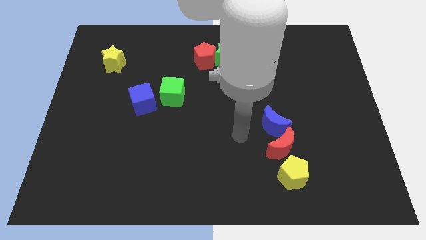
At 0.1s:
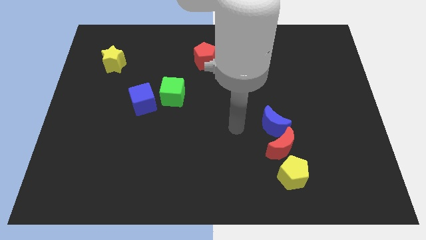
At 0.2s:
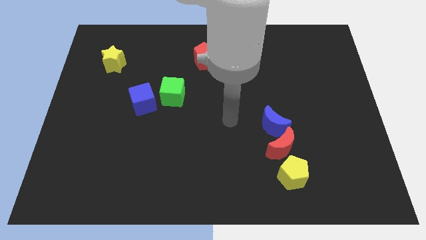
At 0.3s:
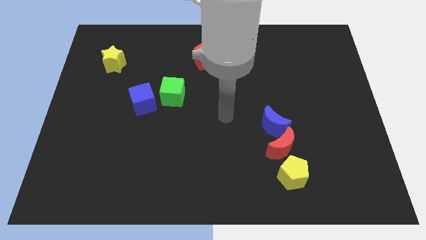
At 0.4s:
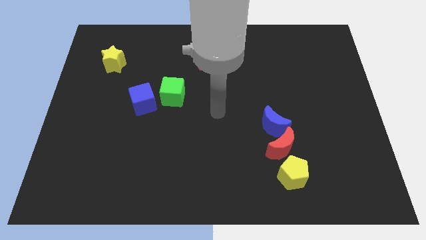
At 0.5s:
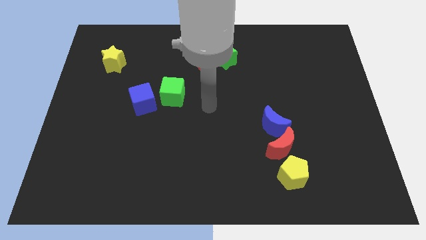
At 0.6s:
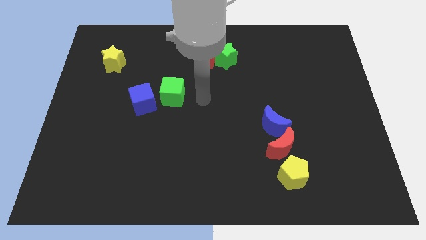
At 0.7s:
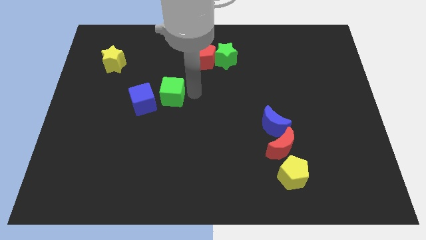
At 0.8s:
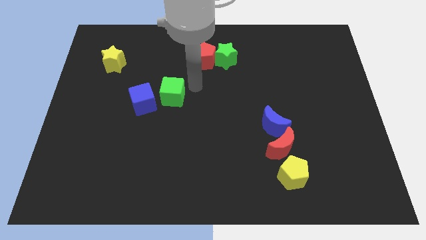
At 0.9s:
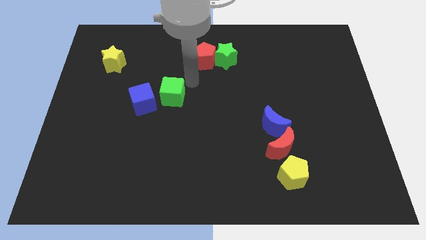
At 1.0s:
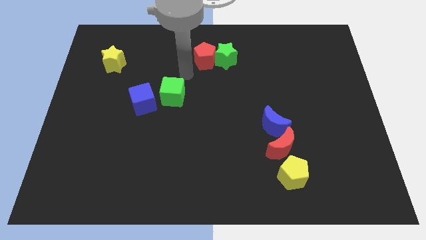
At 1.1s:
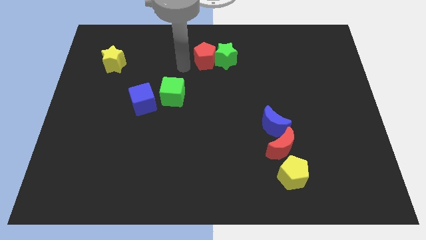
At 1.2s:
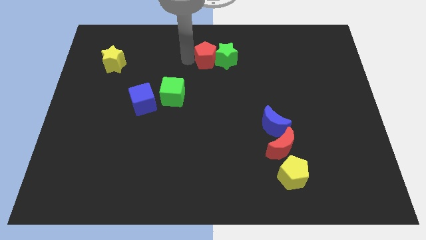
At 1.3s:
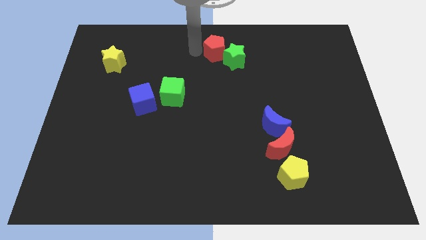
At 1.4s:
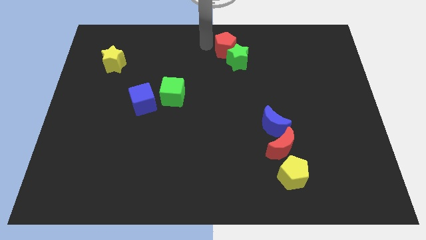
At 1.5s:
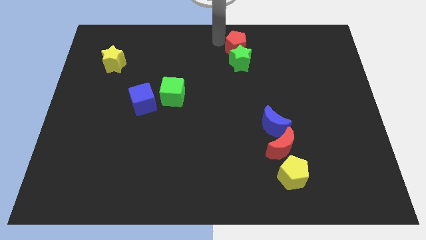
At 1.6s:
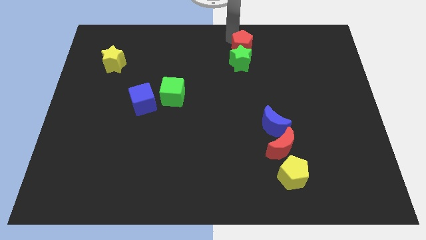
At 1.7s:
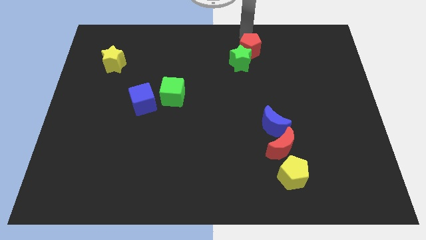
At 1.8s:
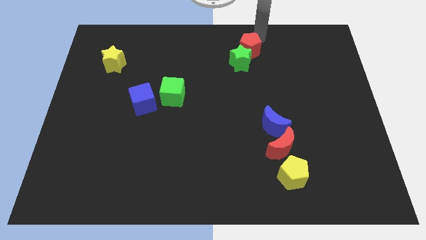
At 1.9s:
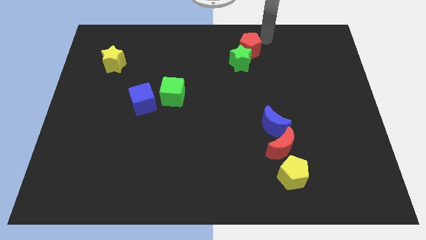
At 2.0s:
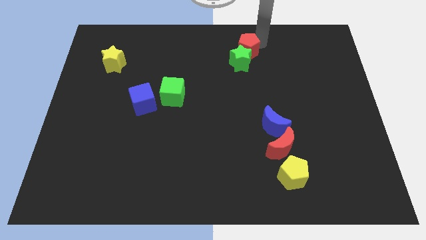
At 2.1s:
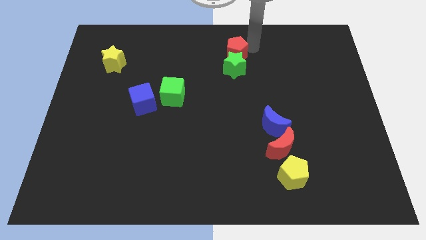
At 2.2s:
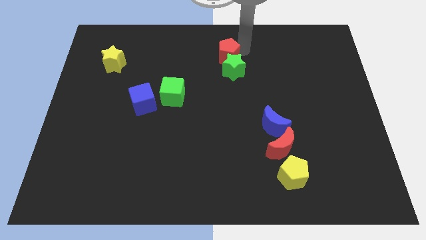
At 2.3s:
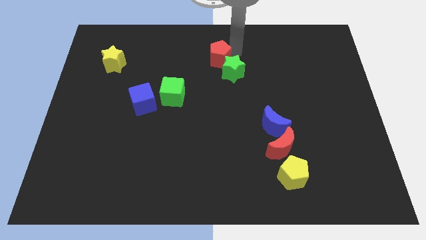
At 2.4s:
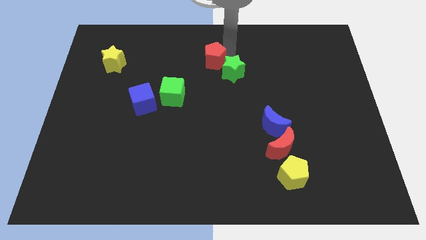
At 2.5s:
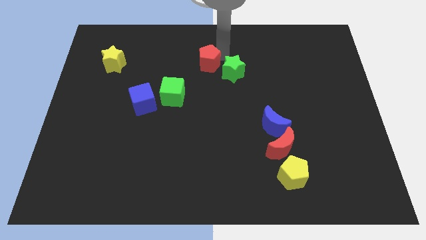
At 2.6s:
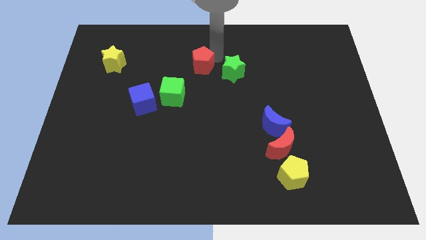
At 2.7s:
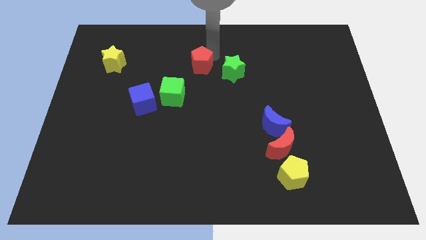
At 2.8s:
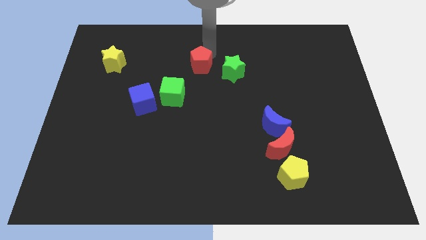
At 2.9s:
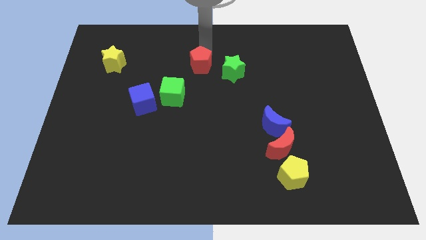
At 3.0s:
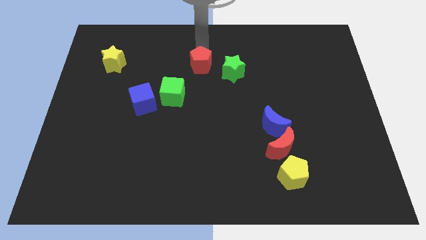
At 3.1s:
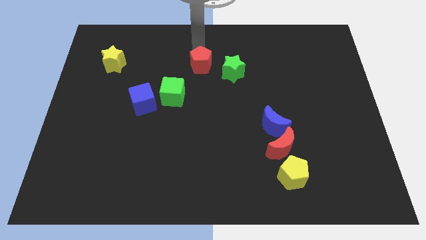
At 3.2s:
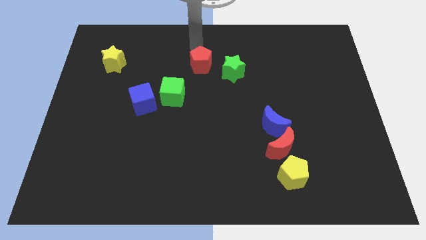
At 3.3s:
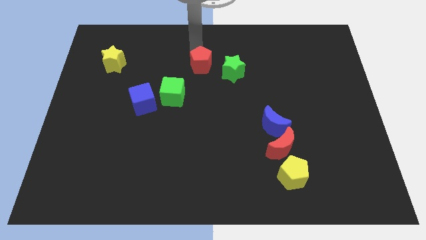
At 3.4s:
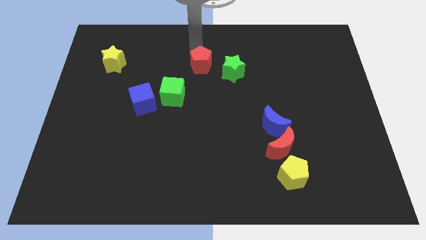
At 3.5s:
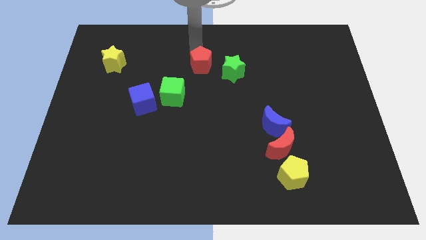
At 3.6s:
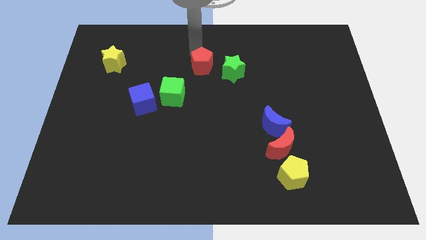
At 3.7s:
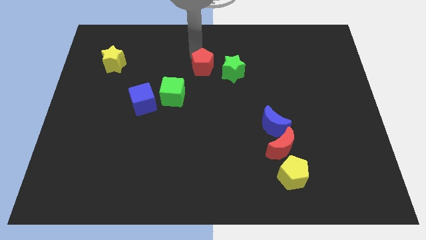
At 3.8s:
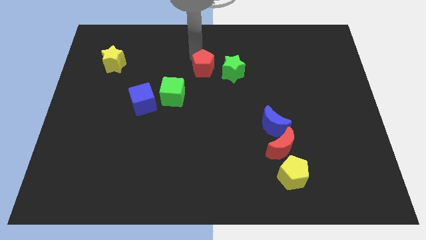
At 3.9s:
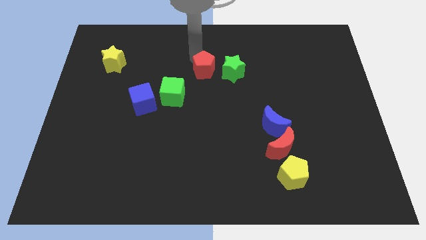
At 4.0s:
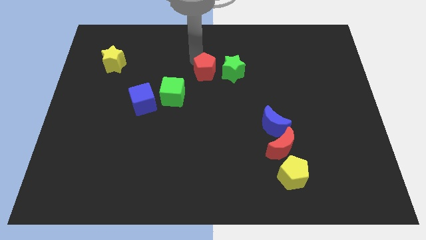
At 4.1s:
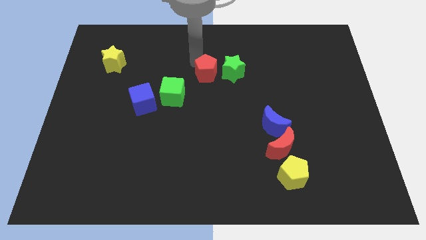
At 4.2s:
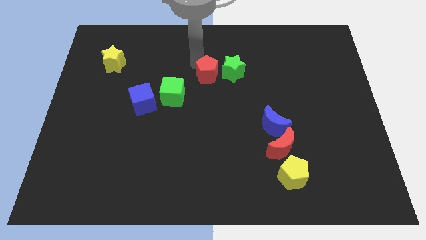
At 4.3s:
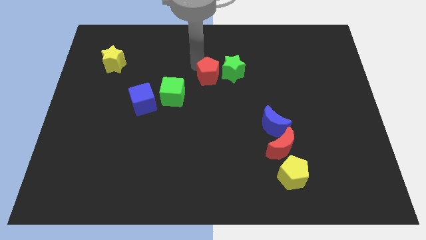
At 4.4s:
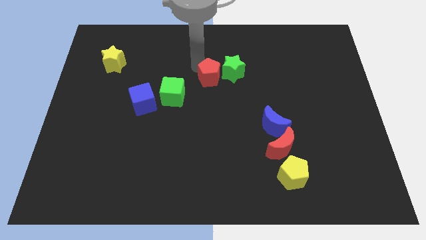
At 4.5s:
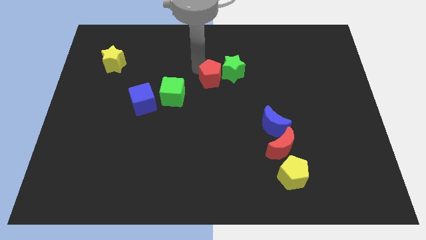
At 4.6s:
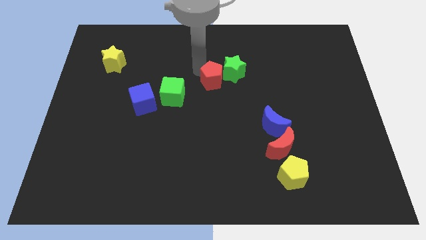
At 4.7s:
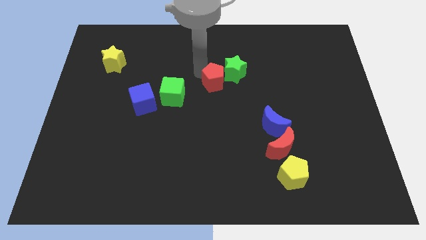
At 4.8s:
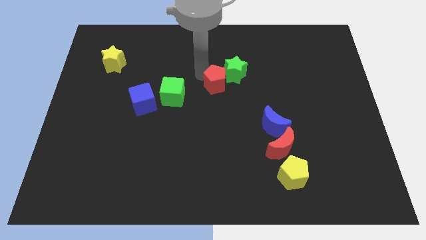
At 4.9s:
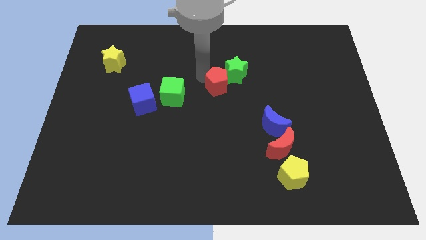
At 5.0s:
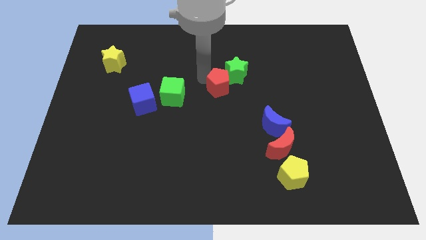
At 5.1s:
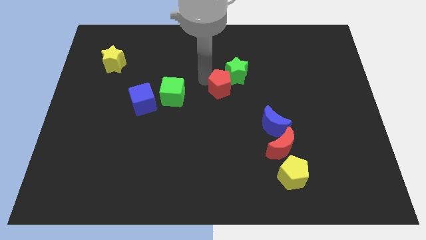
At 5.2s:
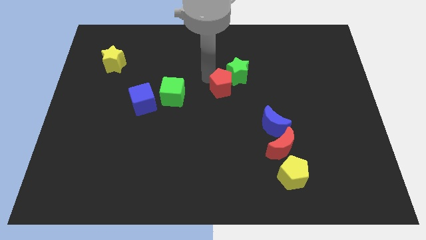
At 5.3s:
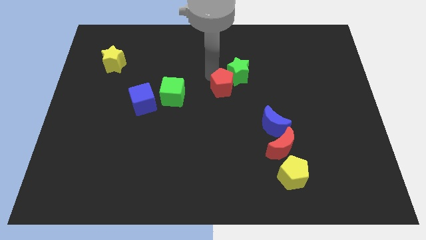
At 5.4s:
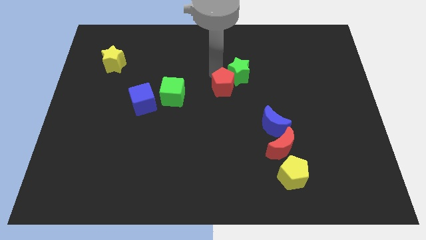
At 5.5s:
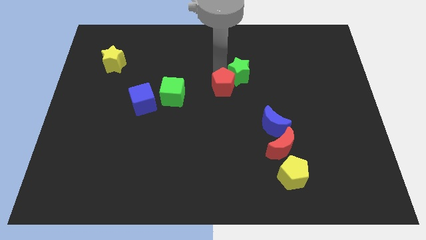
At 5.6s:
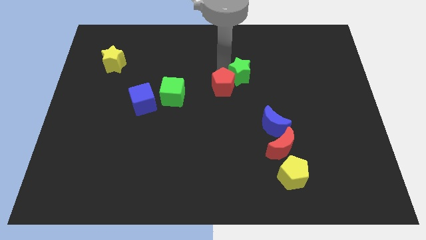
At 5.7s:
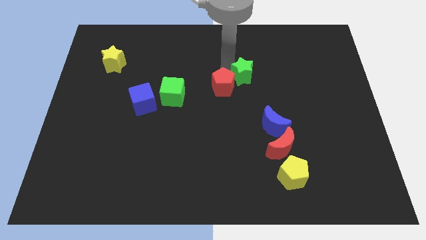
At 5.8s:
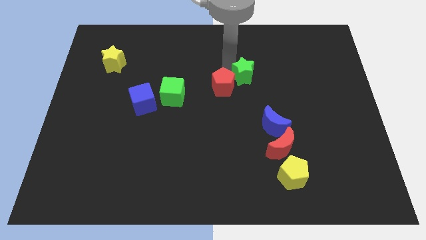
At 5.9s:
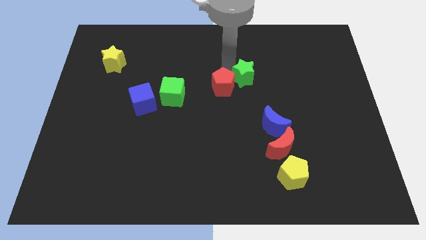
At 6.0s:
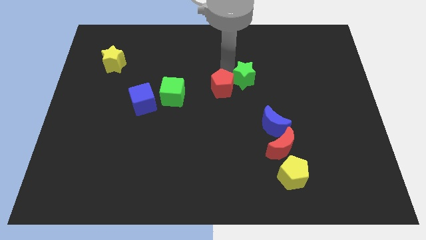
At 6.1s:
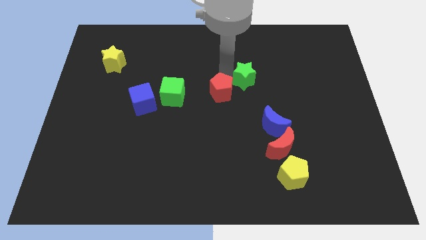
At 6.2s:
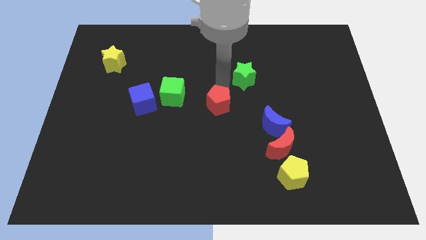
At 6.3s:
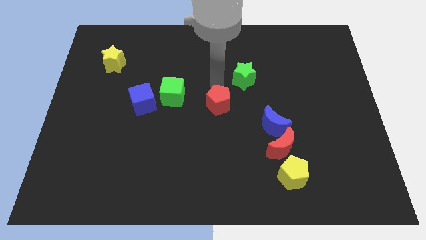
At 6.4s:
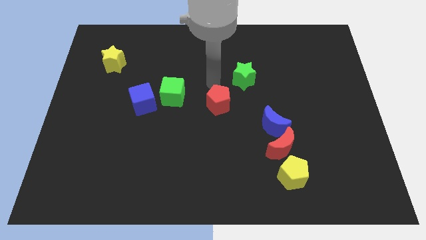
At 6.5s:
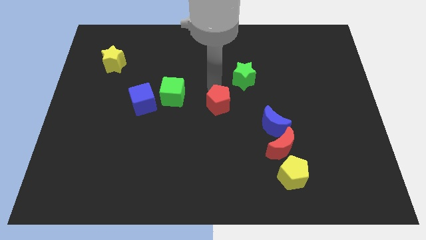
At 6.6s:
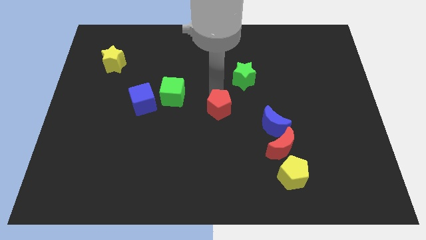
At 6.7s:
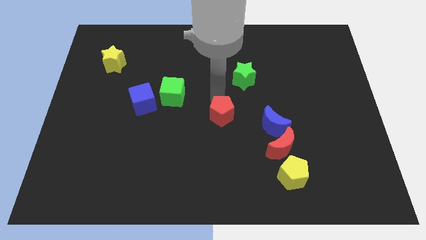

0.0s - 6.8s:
push the red pentagon to the left side of the blue moon

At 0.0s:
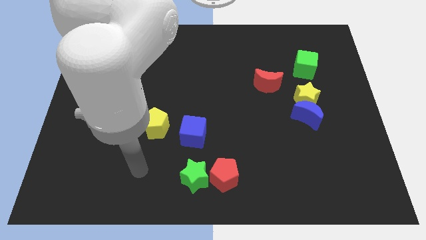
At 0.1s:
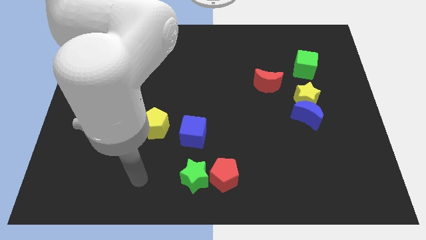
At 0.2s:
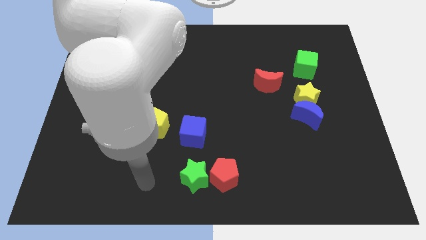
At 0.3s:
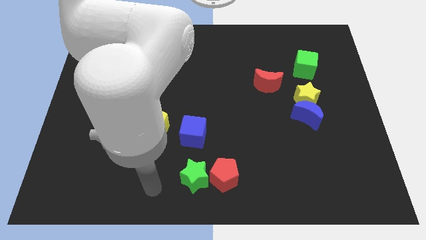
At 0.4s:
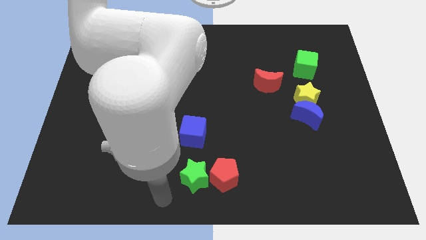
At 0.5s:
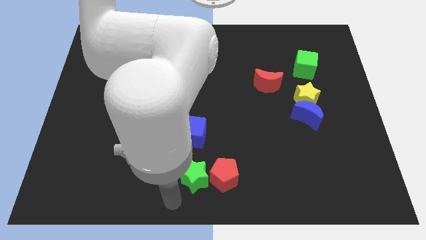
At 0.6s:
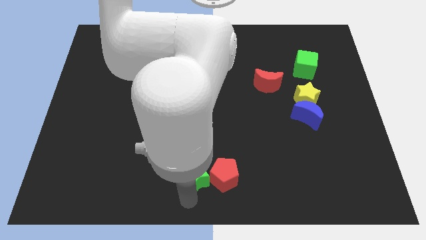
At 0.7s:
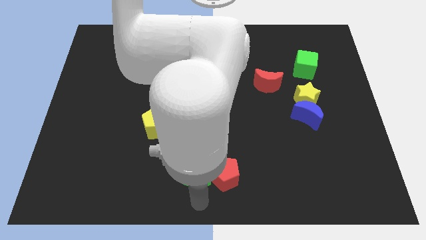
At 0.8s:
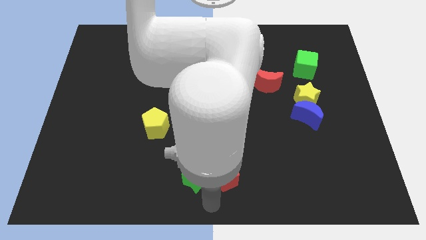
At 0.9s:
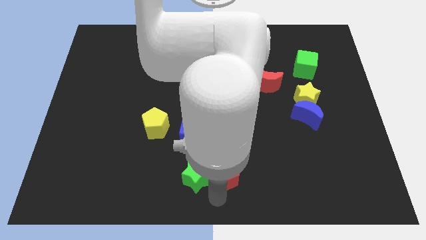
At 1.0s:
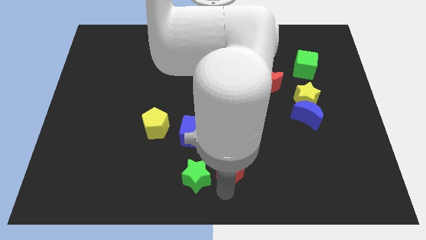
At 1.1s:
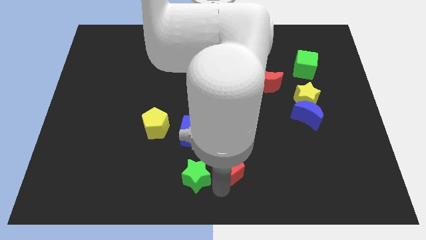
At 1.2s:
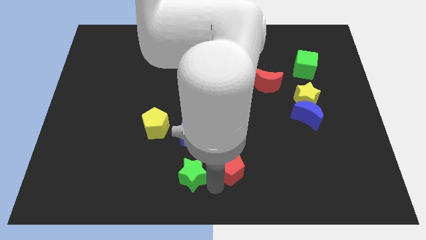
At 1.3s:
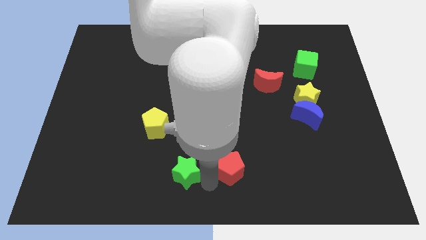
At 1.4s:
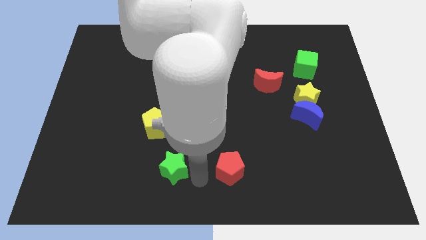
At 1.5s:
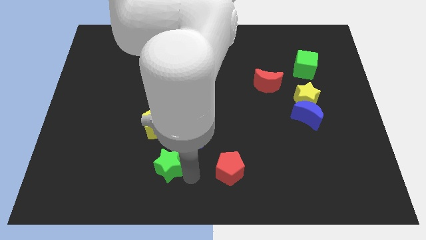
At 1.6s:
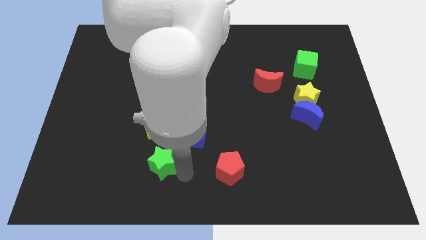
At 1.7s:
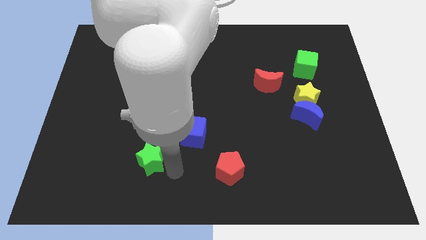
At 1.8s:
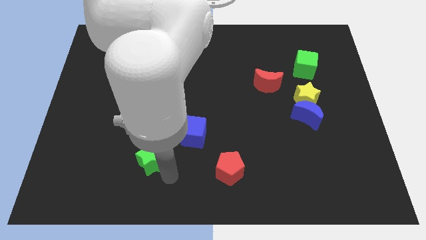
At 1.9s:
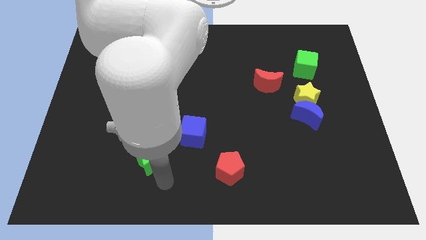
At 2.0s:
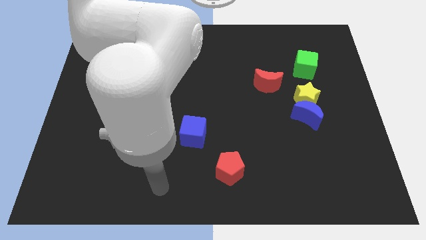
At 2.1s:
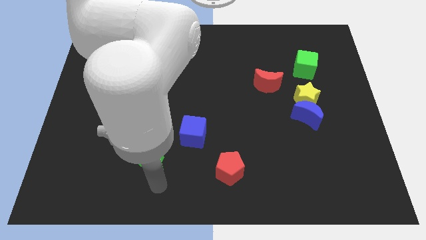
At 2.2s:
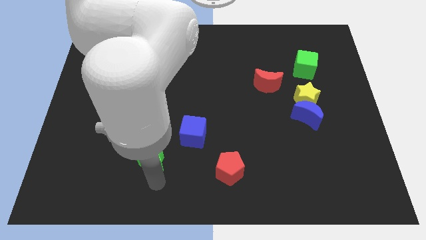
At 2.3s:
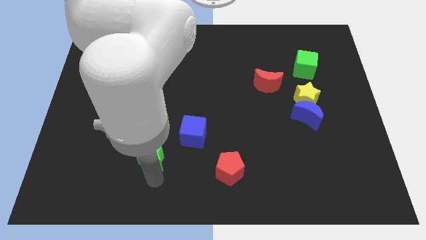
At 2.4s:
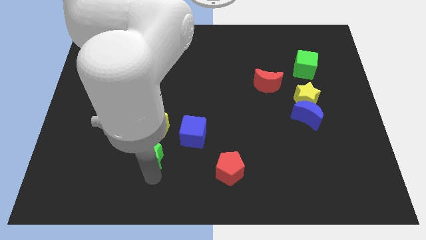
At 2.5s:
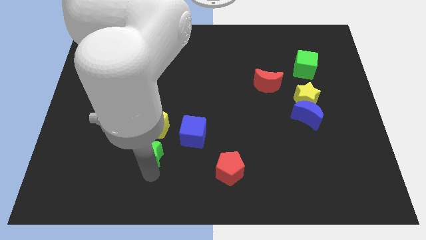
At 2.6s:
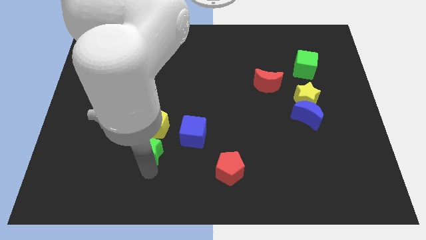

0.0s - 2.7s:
put the green star just left of the blue cube
